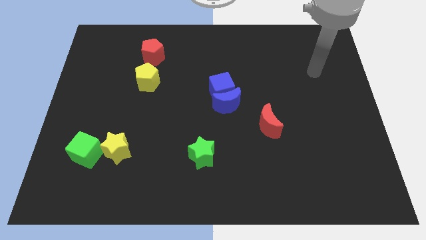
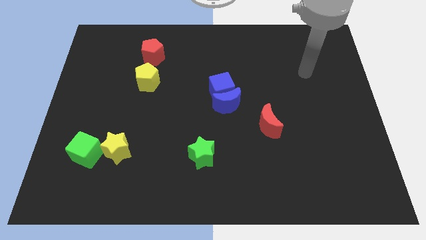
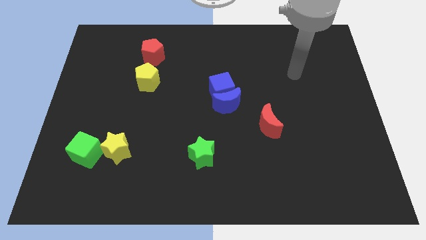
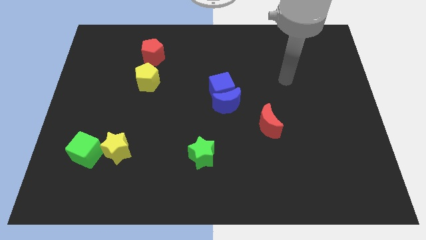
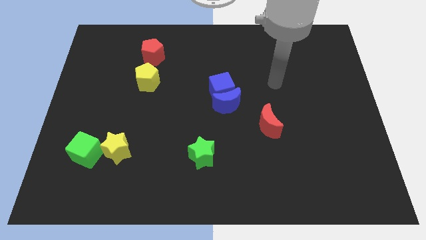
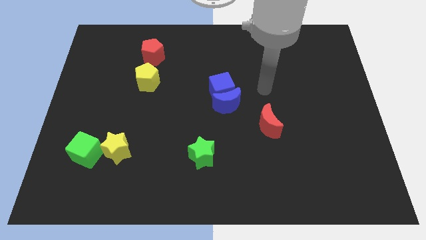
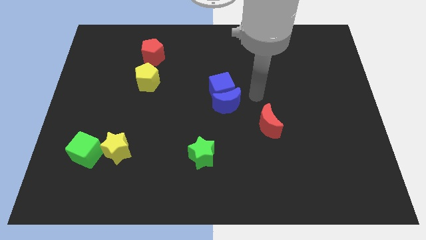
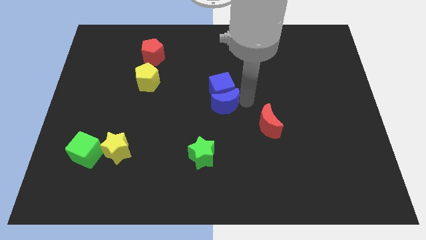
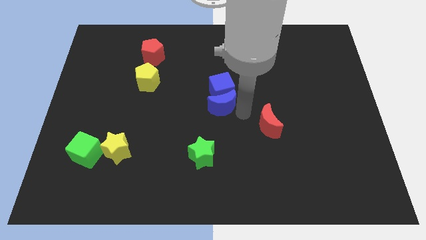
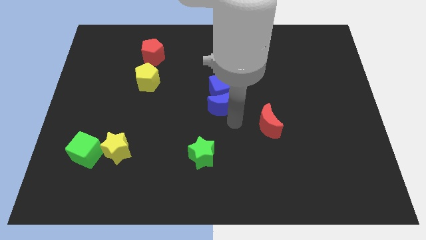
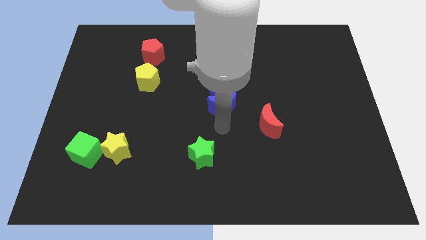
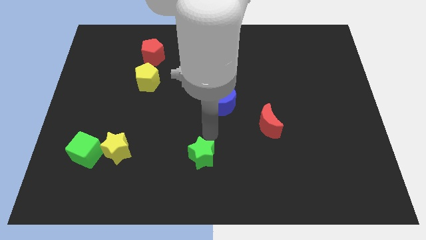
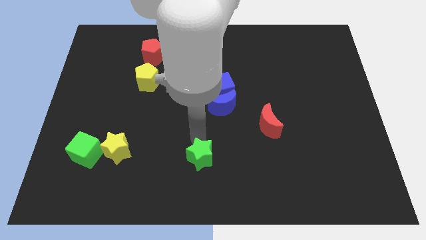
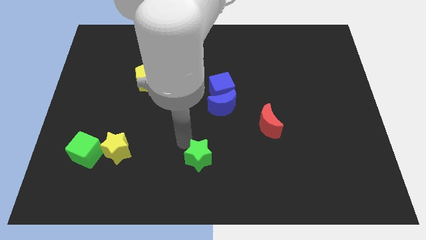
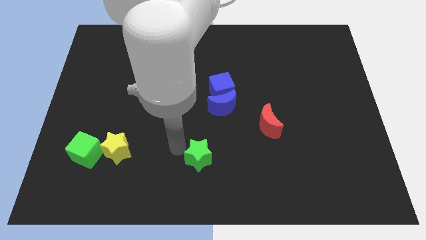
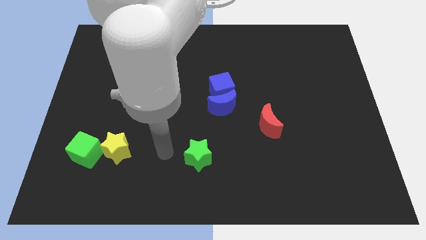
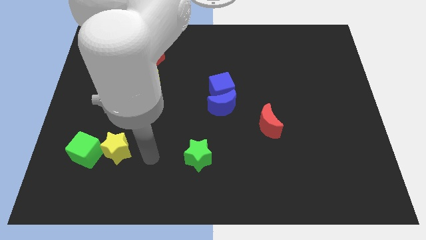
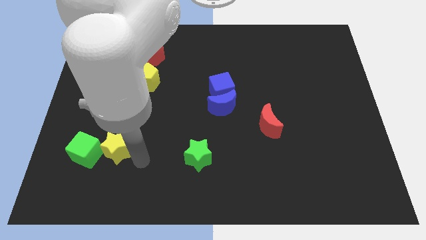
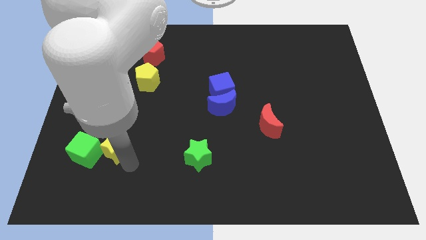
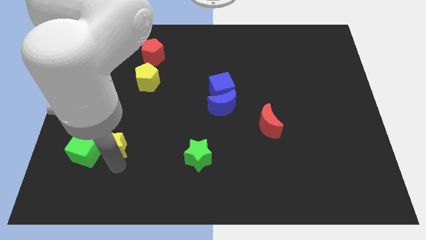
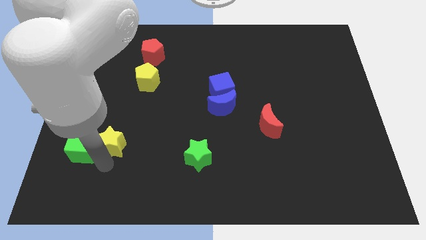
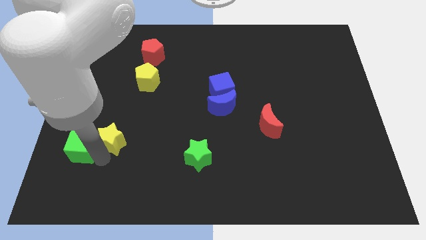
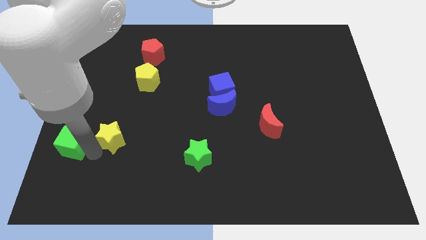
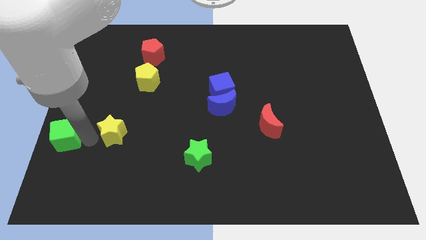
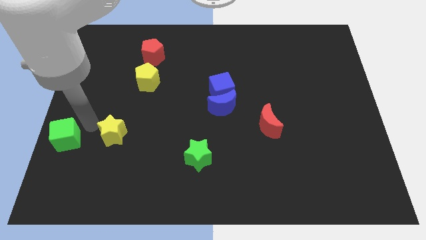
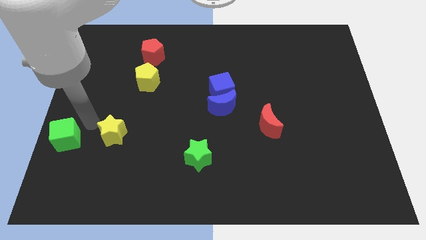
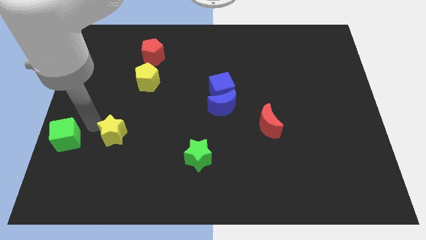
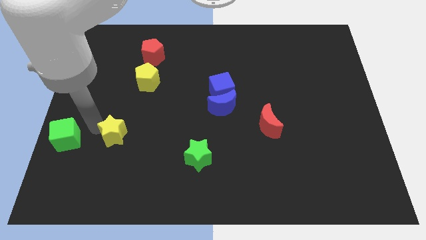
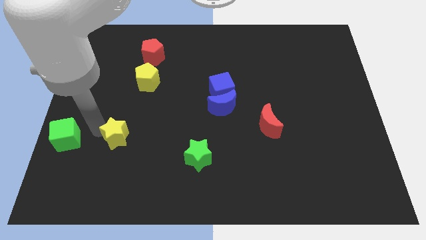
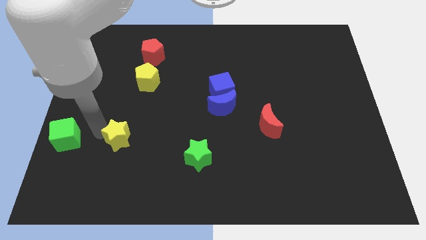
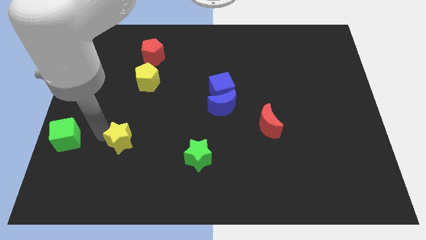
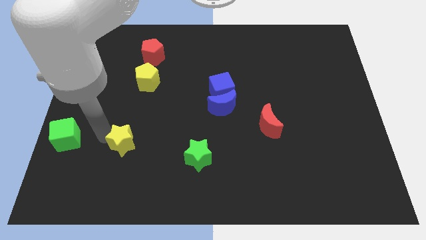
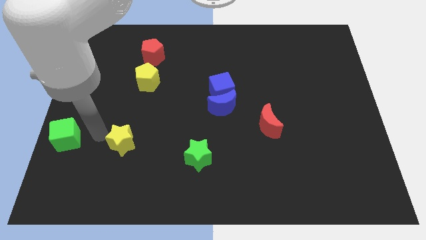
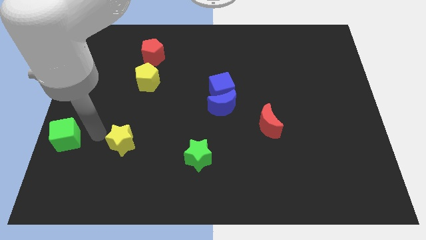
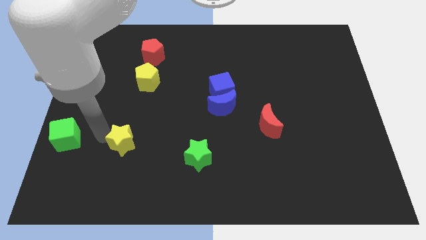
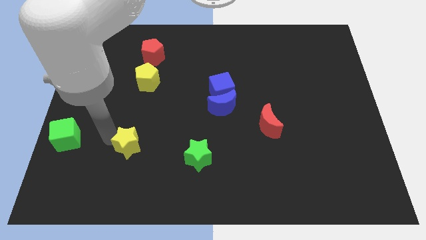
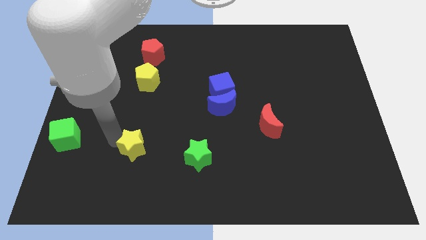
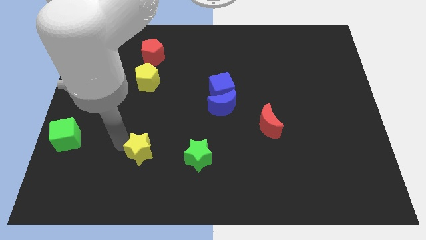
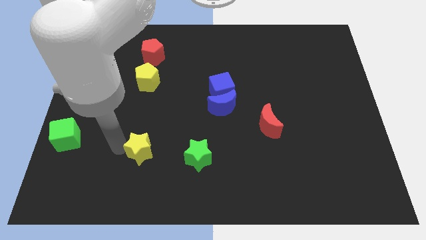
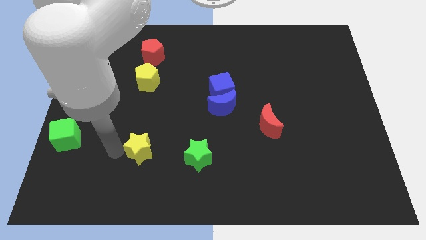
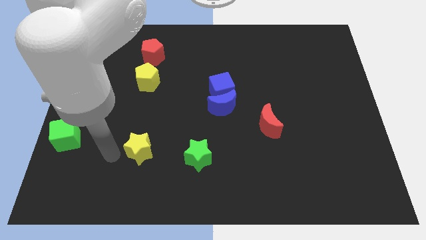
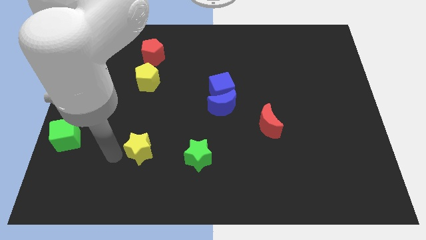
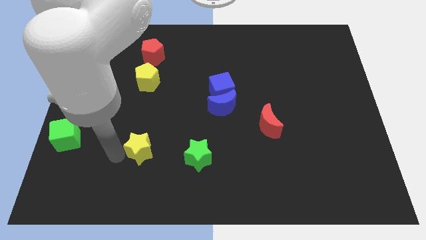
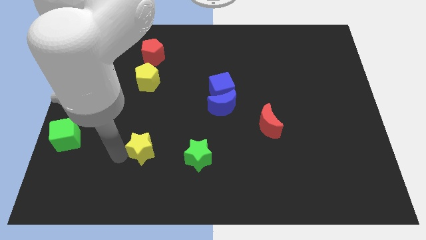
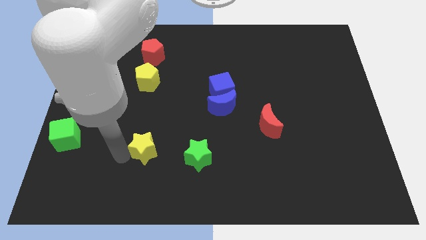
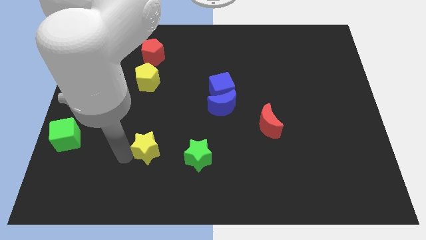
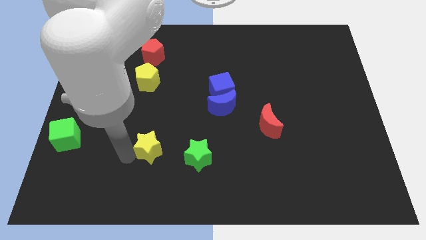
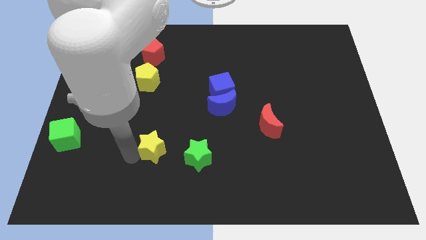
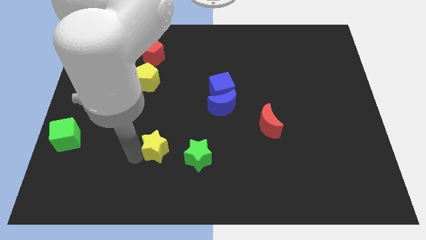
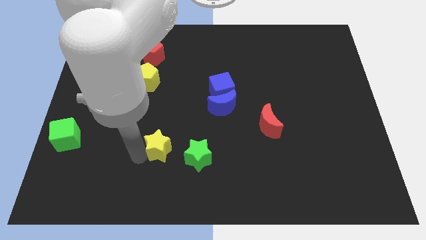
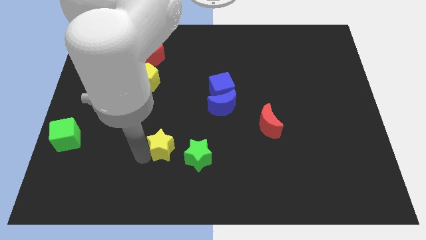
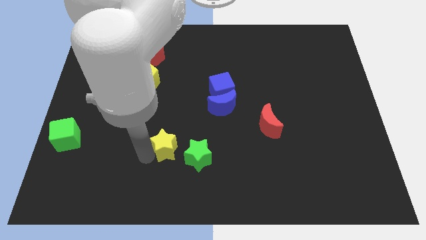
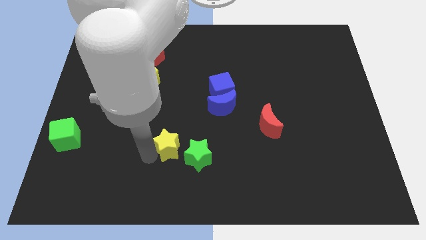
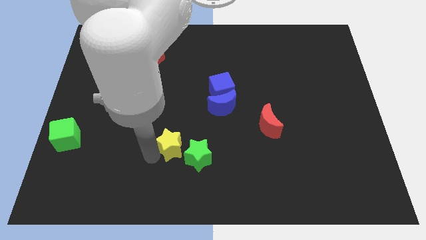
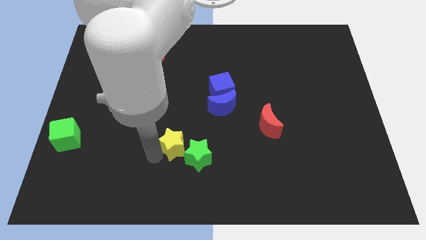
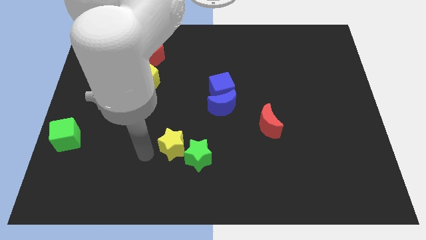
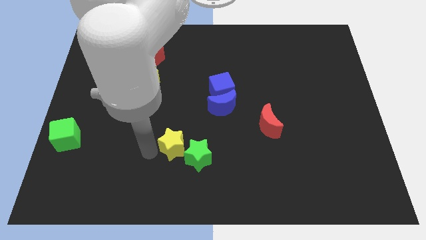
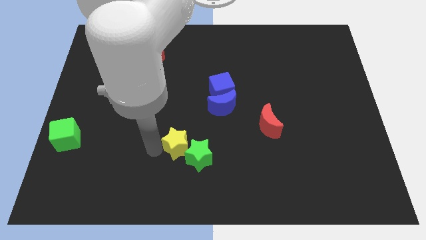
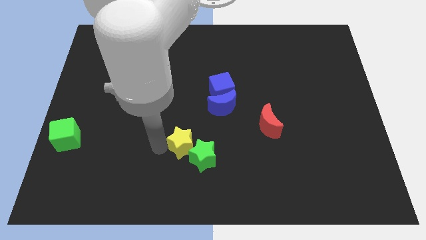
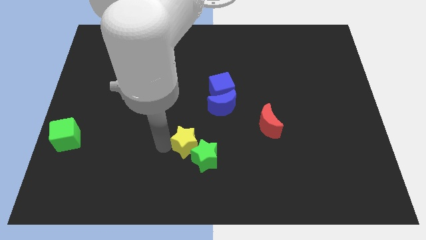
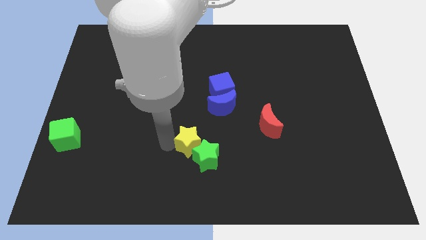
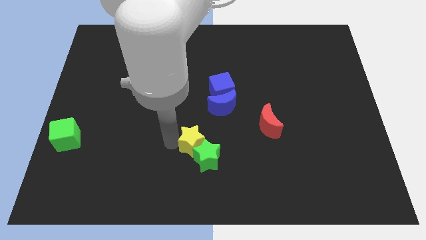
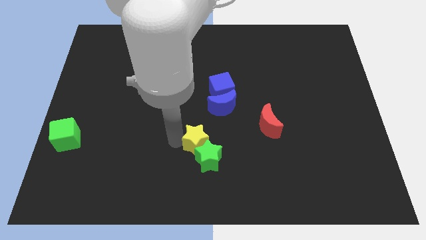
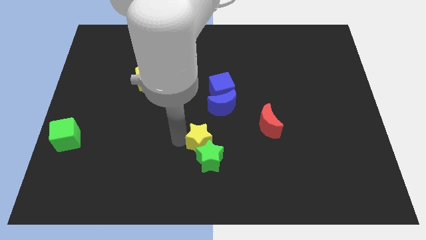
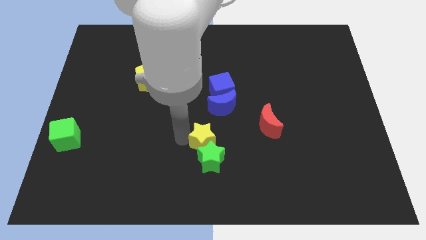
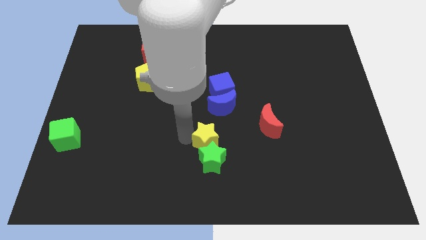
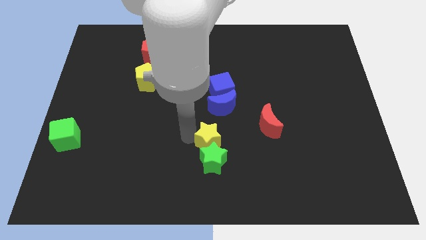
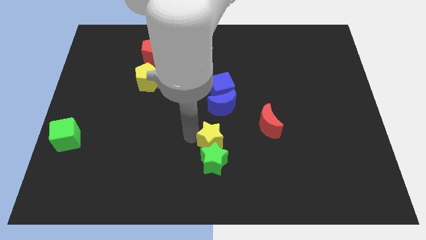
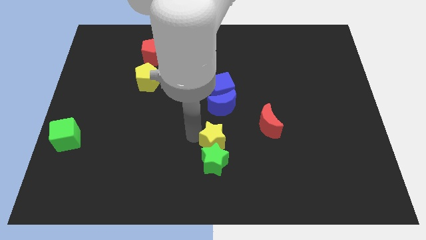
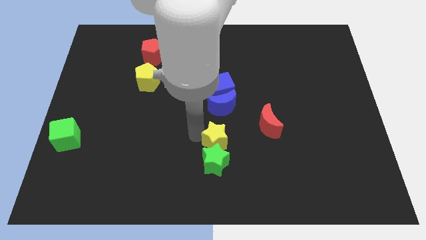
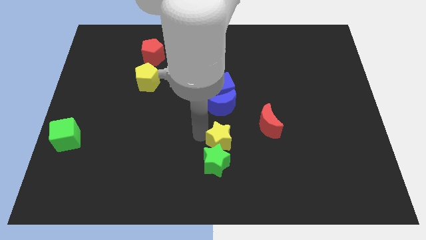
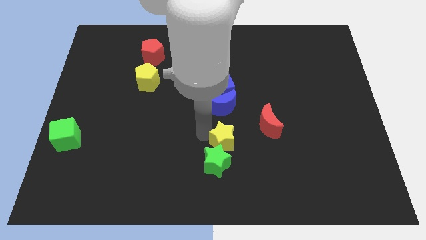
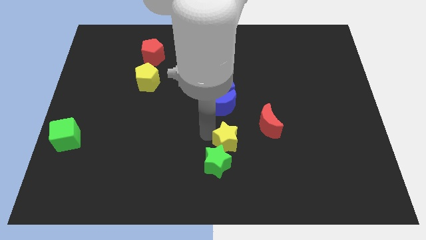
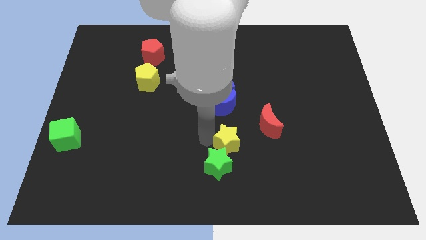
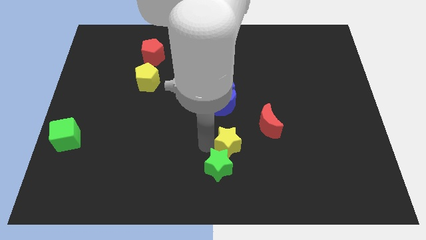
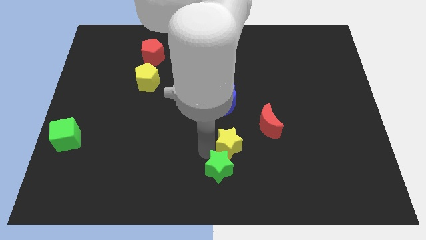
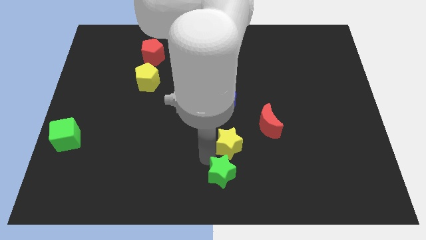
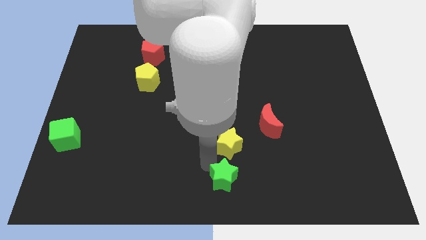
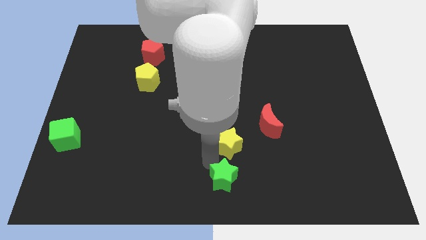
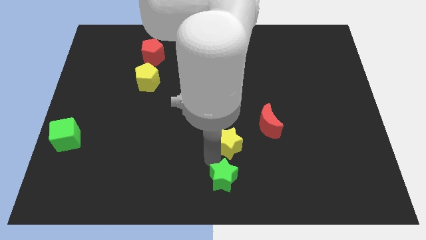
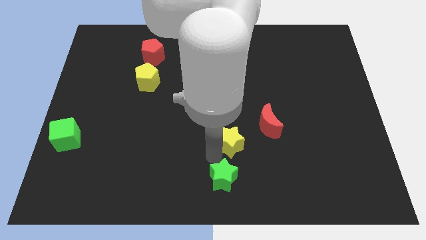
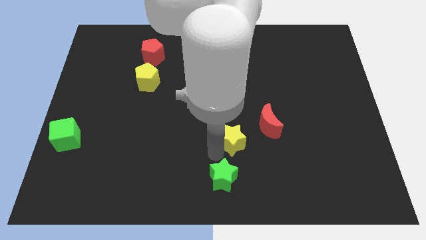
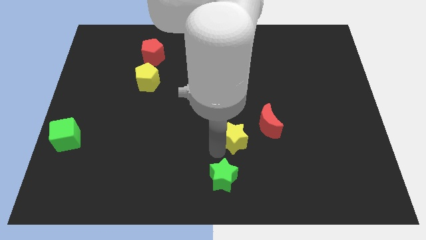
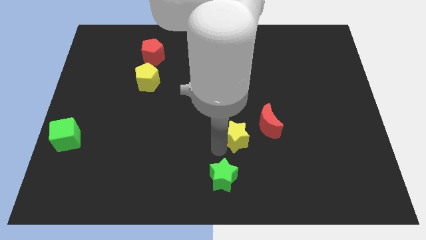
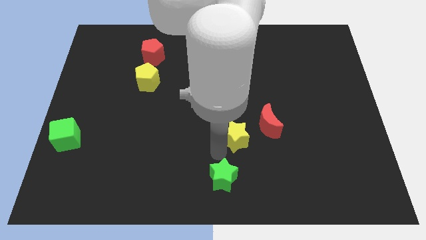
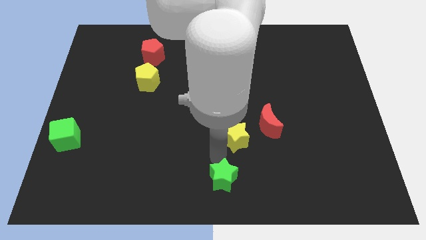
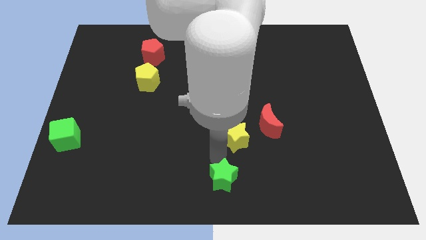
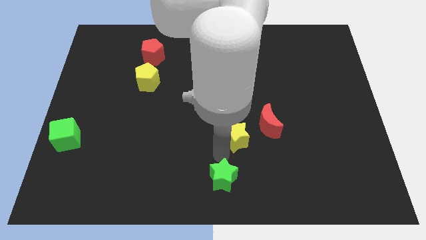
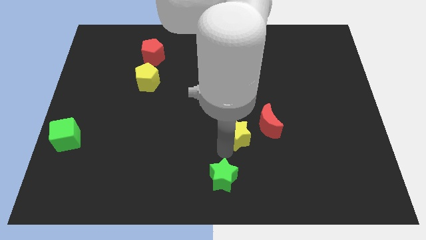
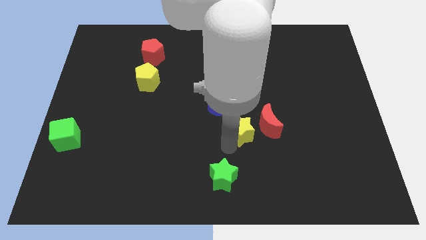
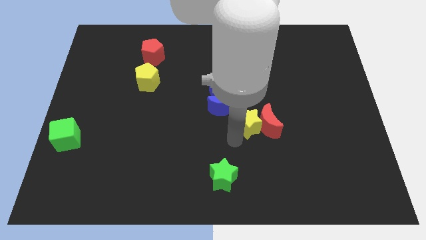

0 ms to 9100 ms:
put the yellow star to the right of the blue moon
